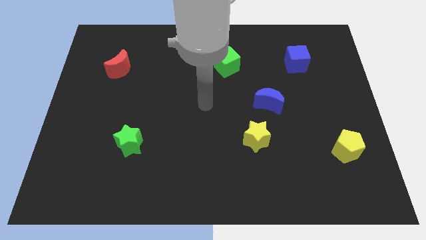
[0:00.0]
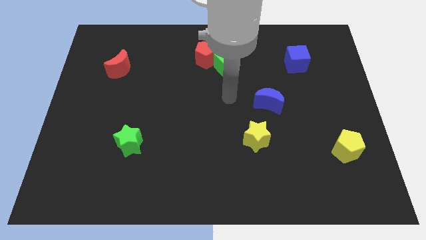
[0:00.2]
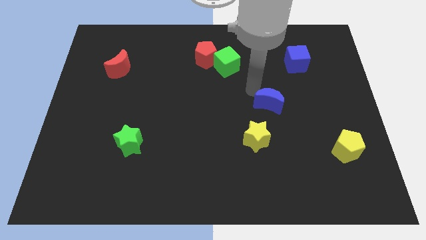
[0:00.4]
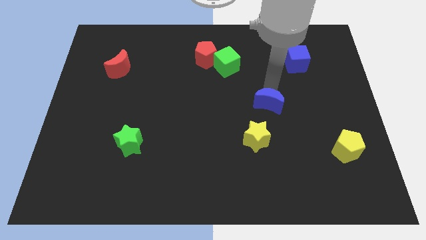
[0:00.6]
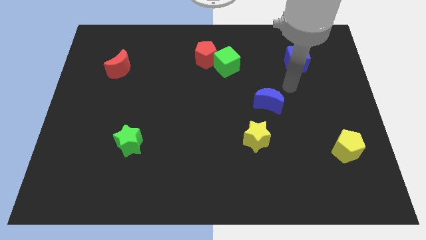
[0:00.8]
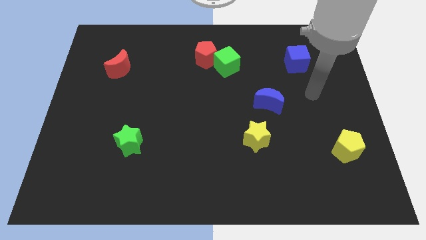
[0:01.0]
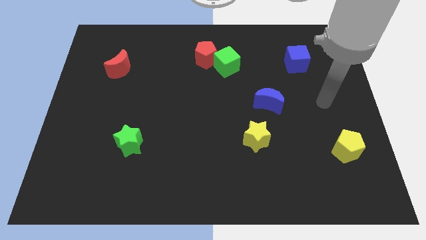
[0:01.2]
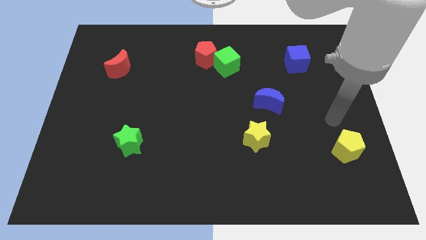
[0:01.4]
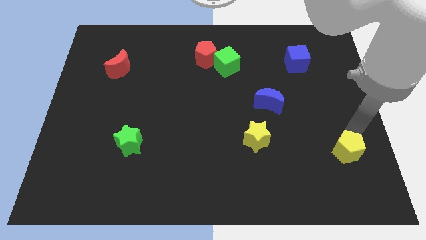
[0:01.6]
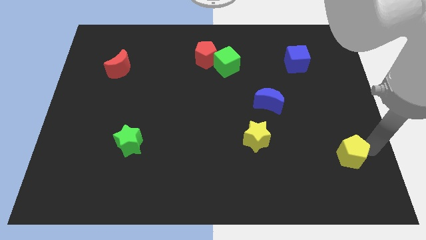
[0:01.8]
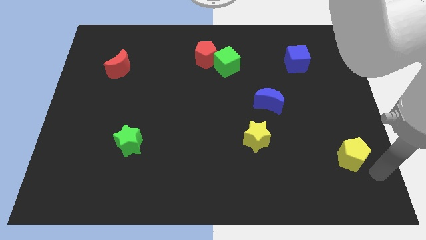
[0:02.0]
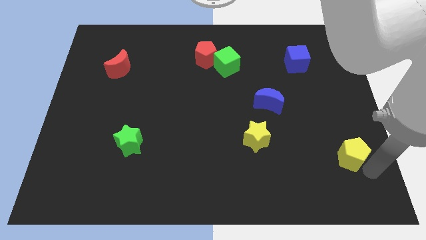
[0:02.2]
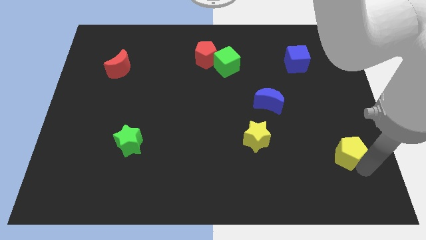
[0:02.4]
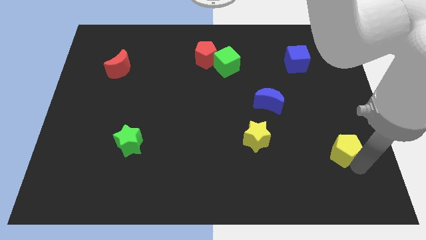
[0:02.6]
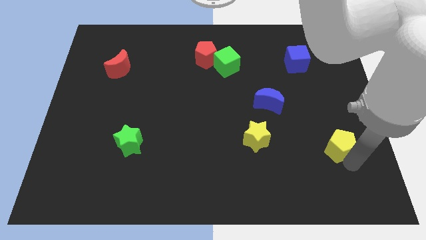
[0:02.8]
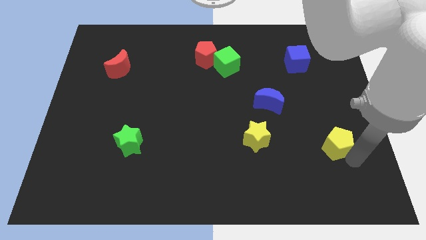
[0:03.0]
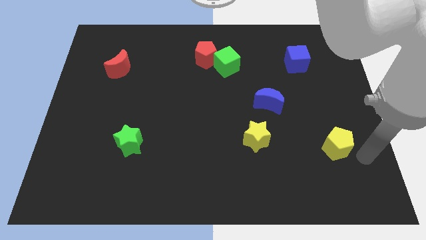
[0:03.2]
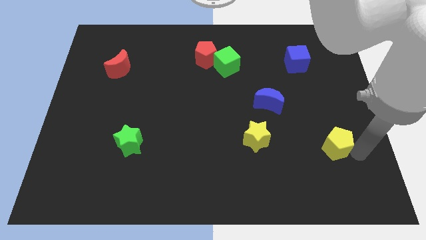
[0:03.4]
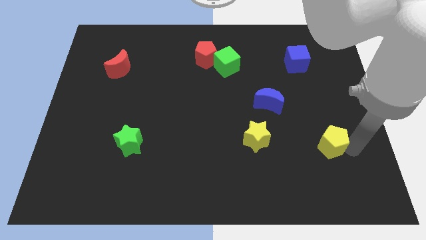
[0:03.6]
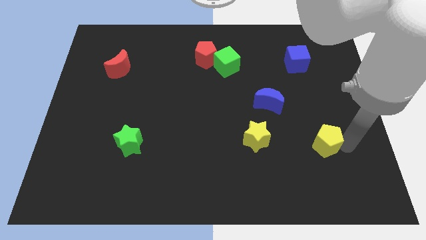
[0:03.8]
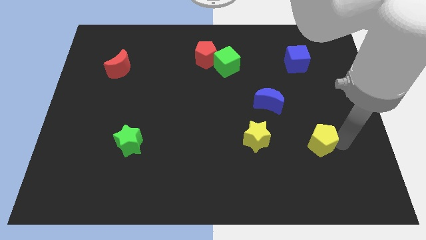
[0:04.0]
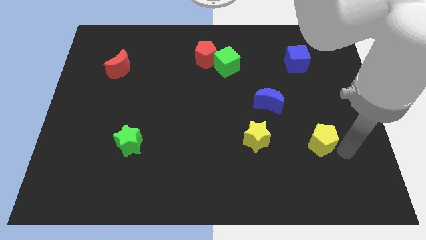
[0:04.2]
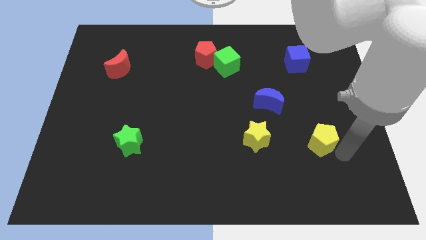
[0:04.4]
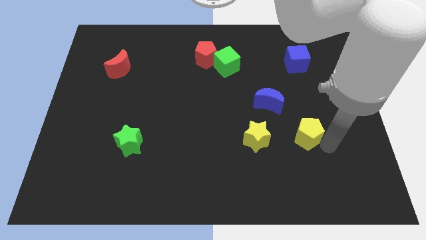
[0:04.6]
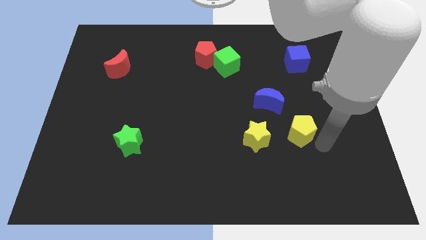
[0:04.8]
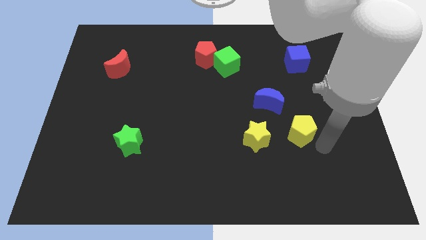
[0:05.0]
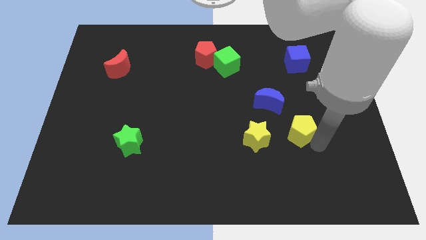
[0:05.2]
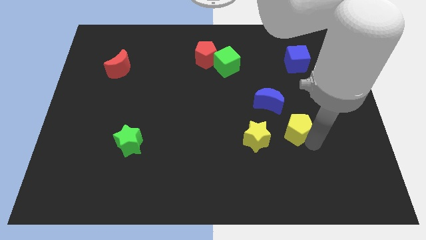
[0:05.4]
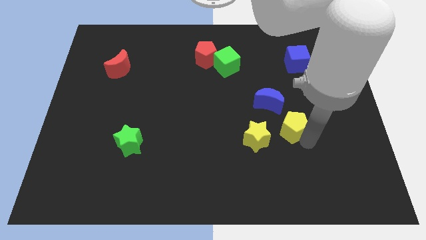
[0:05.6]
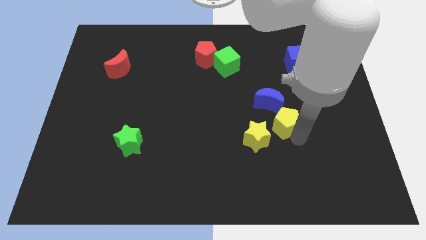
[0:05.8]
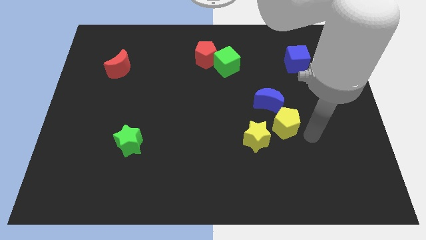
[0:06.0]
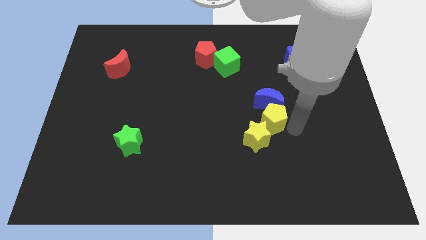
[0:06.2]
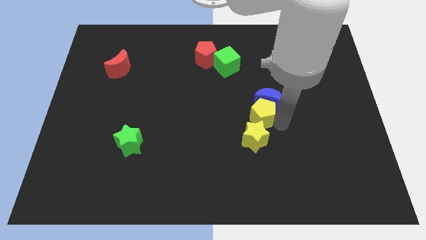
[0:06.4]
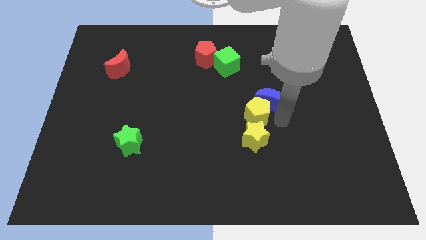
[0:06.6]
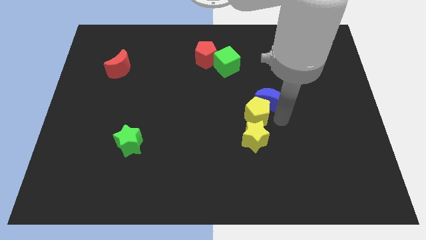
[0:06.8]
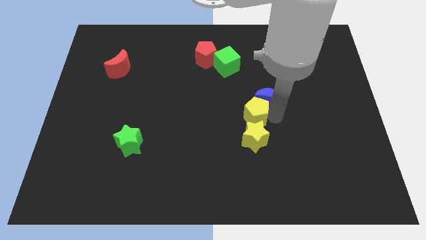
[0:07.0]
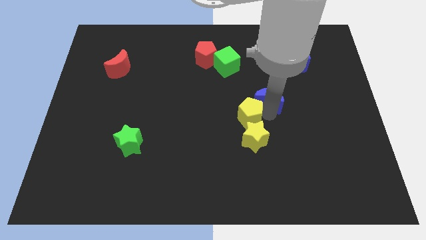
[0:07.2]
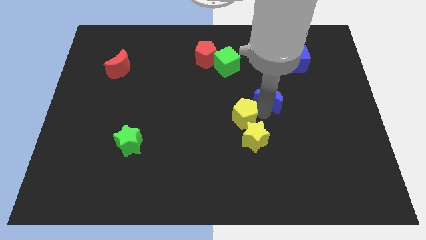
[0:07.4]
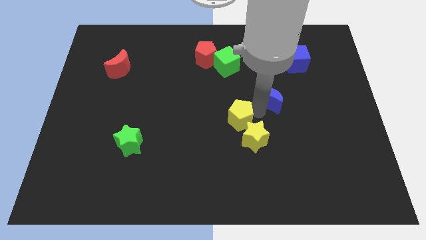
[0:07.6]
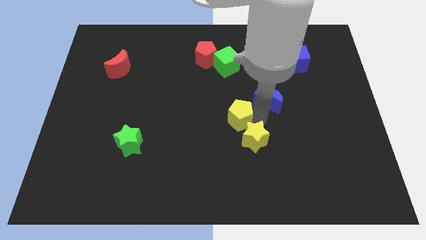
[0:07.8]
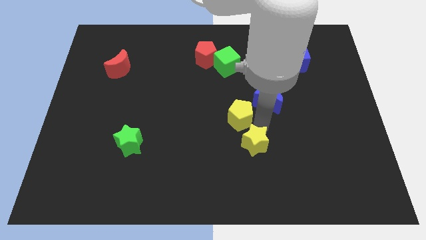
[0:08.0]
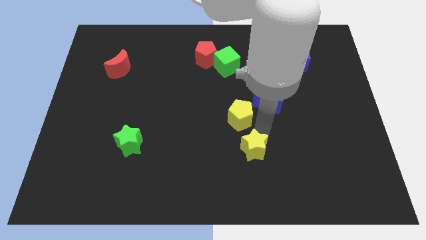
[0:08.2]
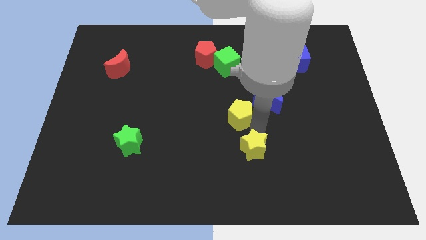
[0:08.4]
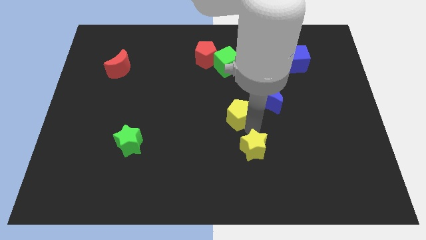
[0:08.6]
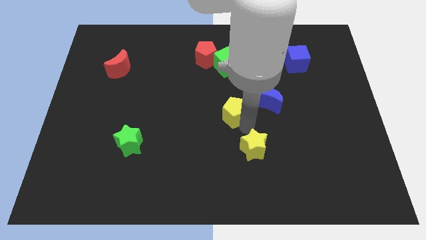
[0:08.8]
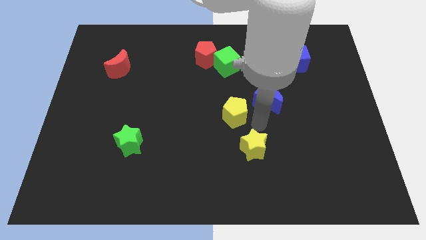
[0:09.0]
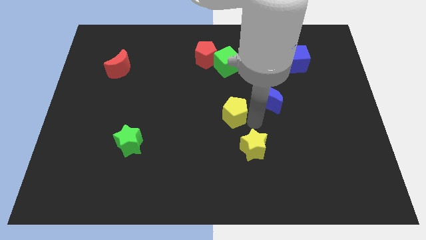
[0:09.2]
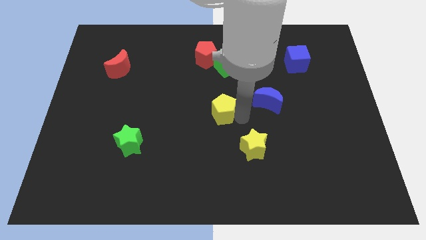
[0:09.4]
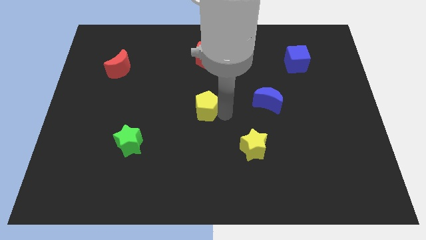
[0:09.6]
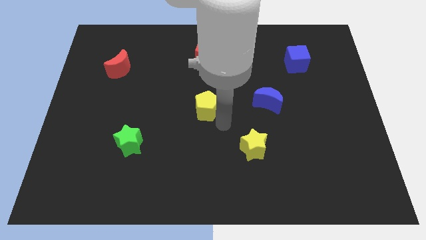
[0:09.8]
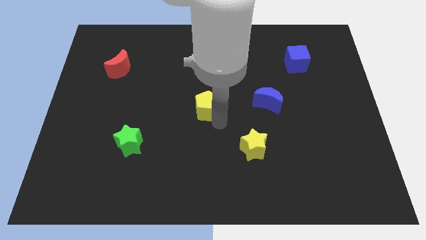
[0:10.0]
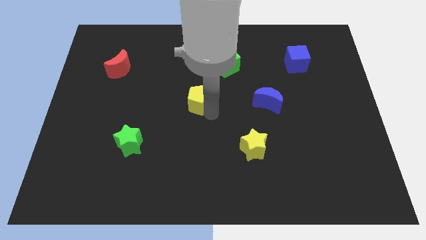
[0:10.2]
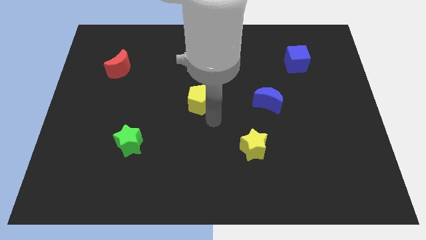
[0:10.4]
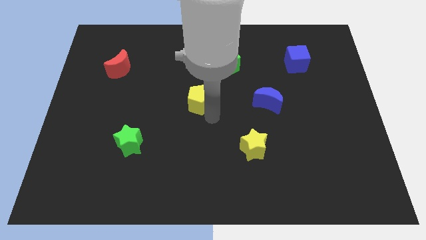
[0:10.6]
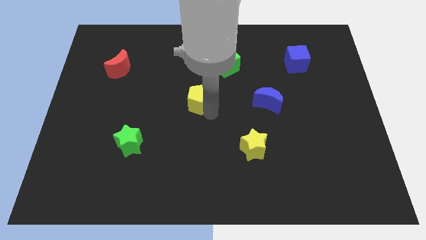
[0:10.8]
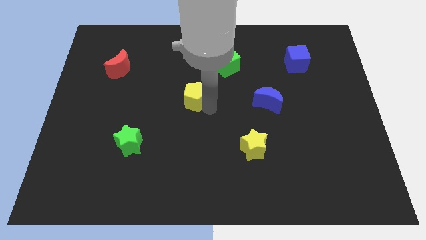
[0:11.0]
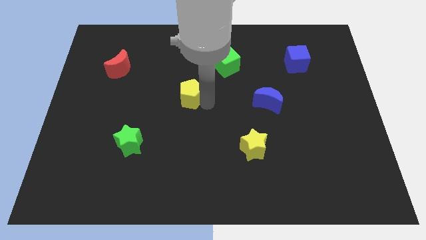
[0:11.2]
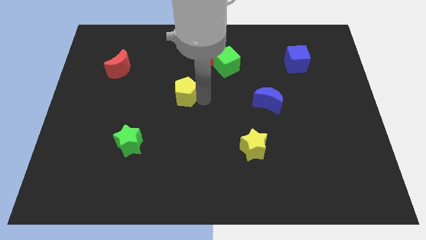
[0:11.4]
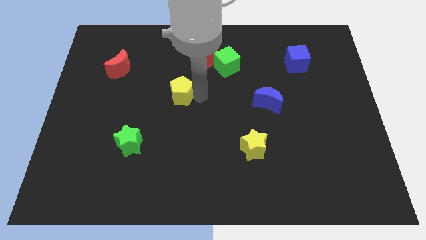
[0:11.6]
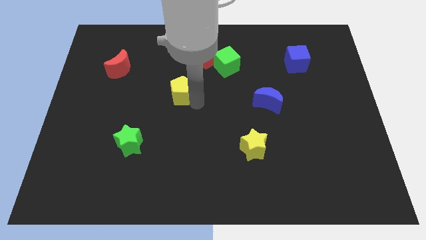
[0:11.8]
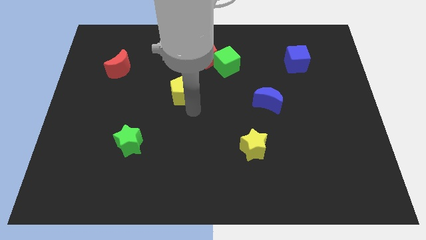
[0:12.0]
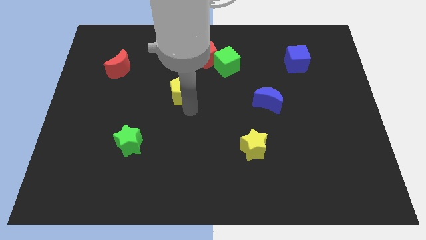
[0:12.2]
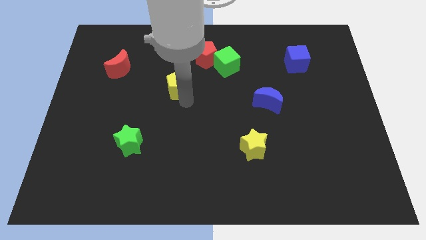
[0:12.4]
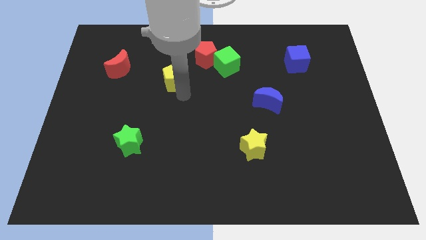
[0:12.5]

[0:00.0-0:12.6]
move the yellow pentagon to the right side of the red moon

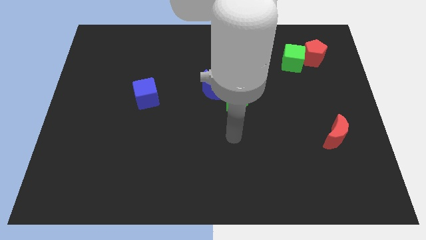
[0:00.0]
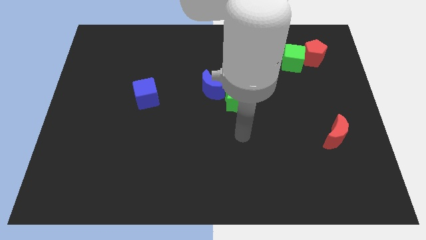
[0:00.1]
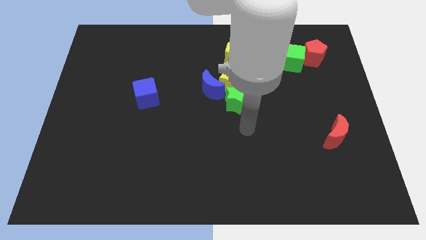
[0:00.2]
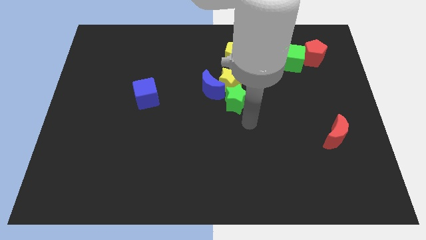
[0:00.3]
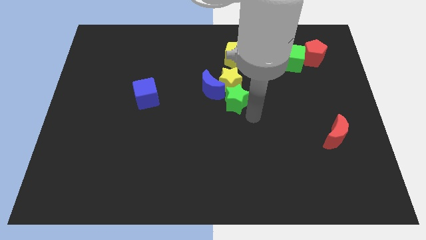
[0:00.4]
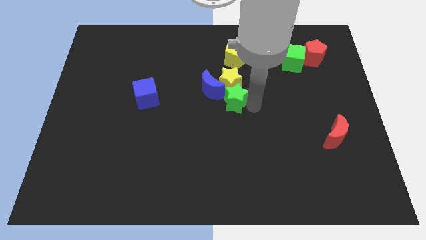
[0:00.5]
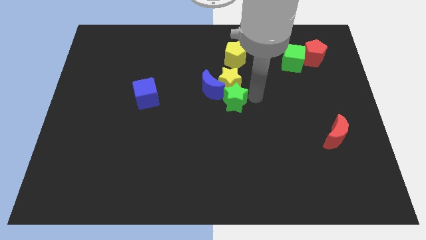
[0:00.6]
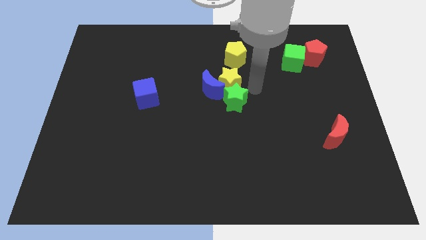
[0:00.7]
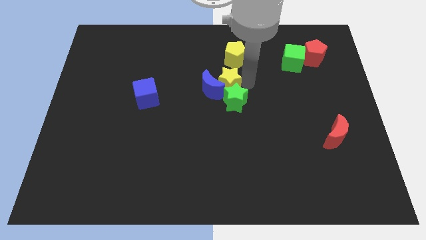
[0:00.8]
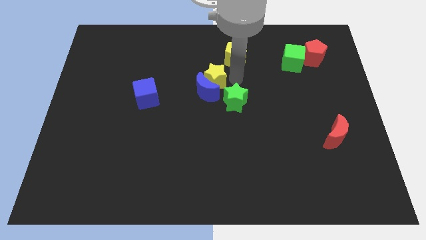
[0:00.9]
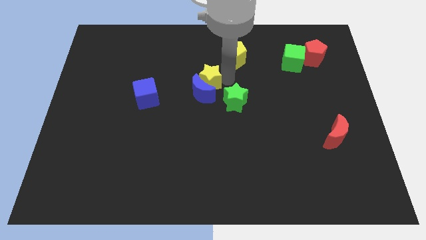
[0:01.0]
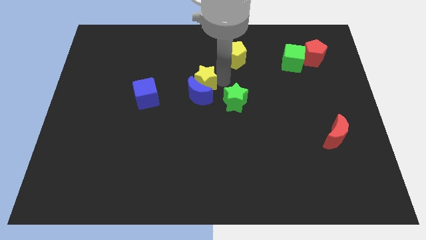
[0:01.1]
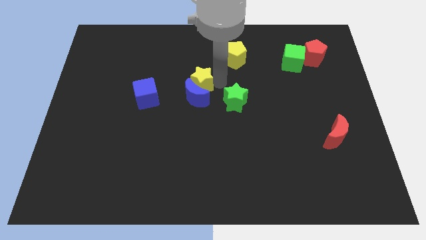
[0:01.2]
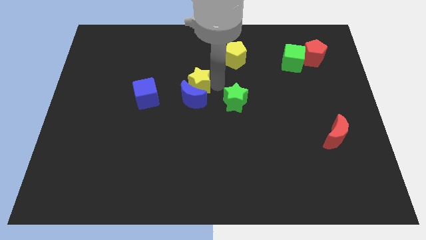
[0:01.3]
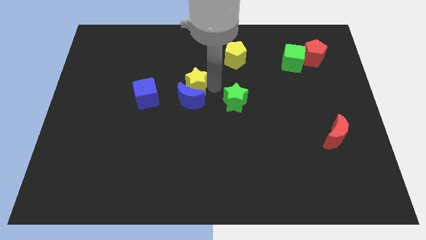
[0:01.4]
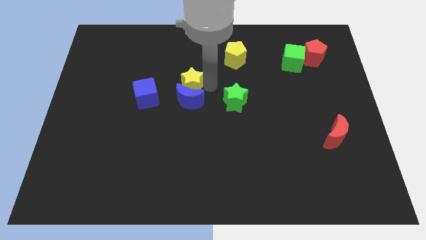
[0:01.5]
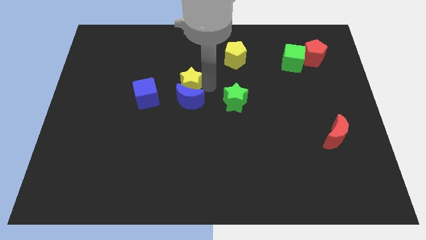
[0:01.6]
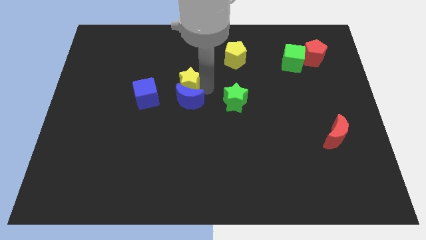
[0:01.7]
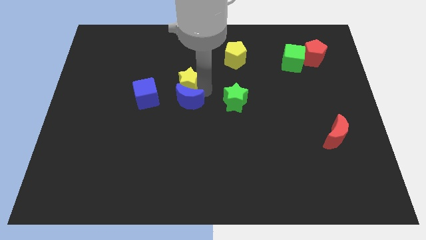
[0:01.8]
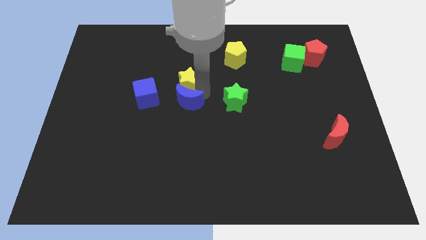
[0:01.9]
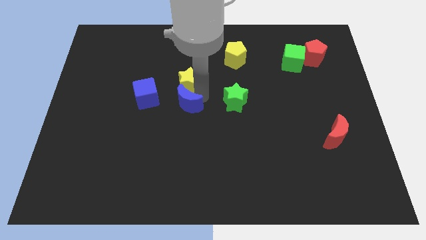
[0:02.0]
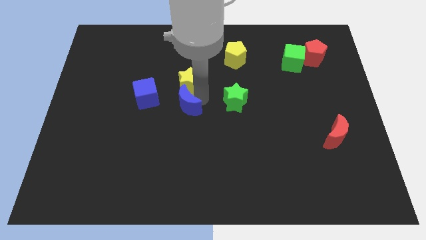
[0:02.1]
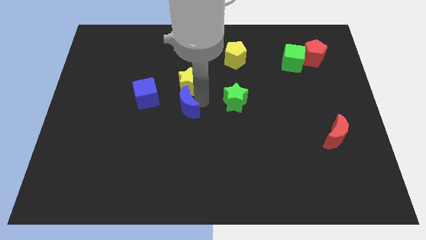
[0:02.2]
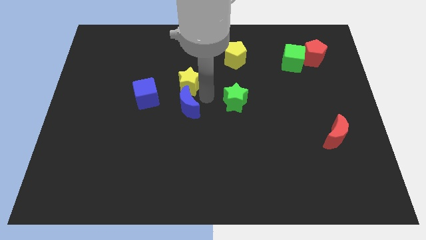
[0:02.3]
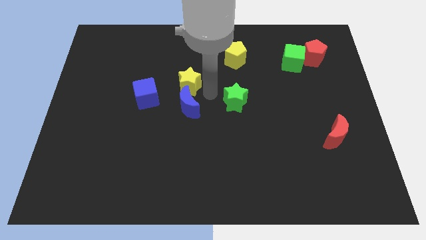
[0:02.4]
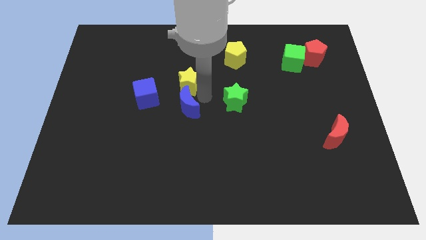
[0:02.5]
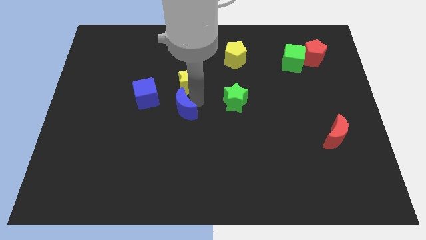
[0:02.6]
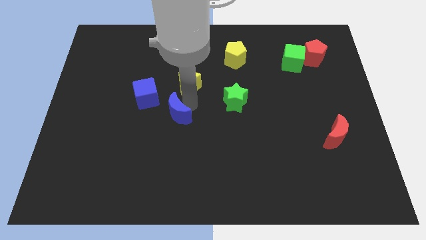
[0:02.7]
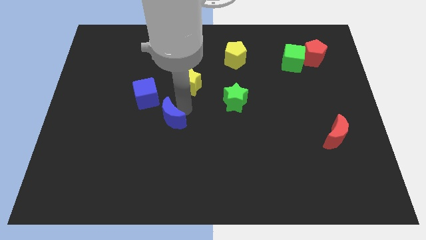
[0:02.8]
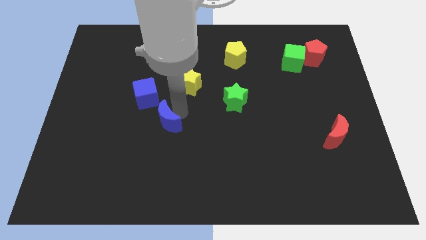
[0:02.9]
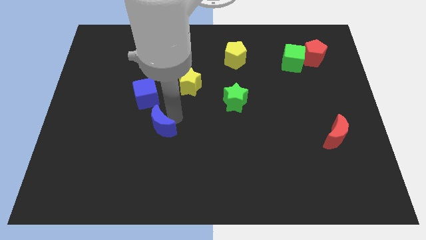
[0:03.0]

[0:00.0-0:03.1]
slide the blue moon below the blue cube
